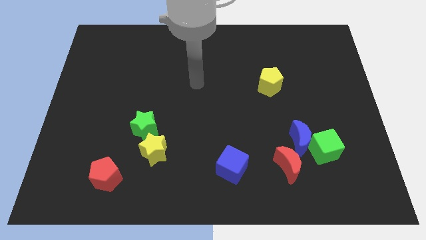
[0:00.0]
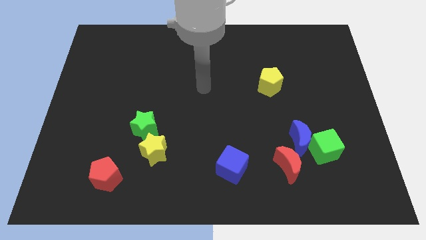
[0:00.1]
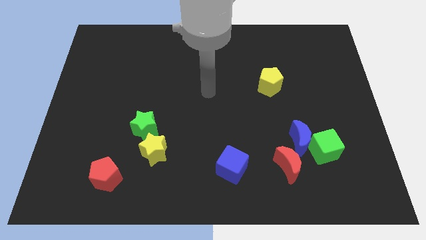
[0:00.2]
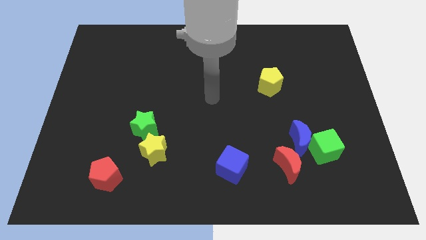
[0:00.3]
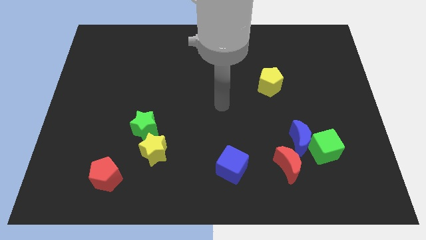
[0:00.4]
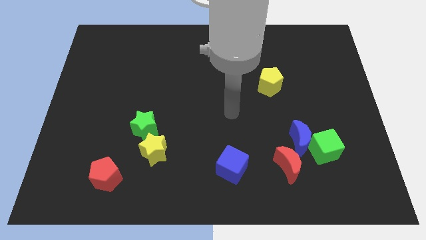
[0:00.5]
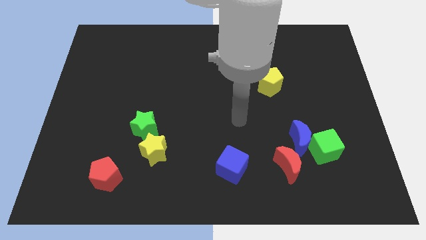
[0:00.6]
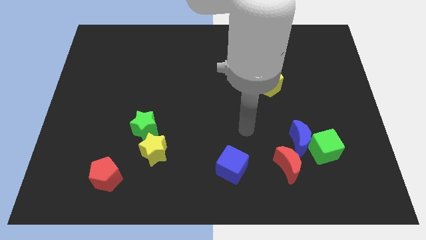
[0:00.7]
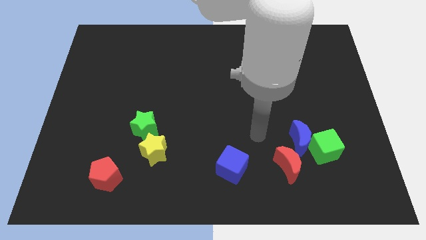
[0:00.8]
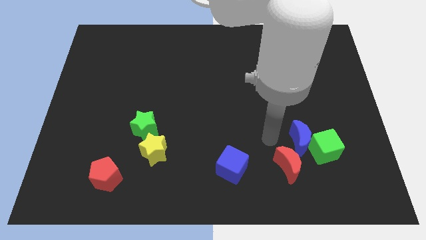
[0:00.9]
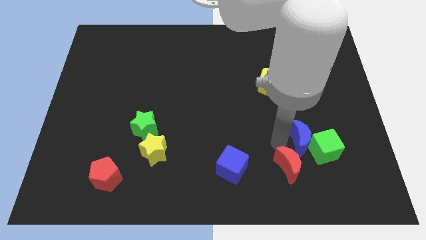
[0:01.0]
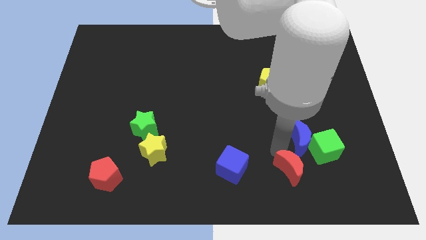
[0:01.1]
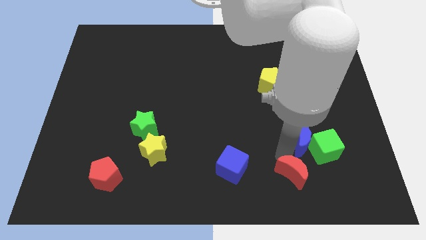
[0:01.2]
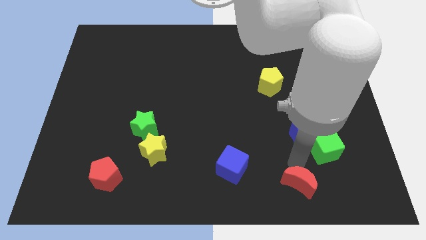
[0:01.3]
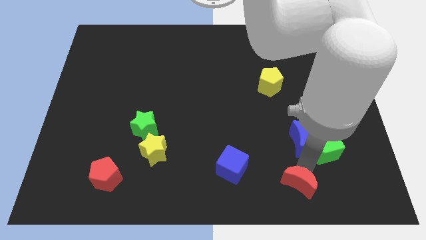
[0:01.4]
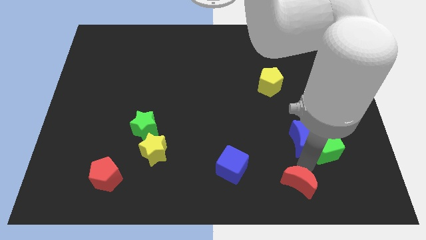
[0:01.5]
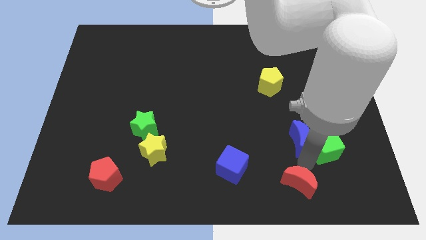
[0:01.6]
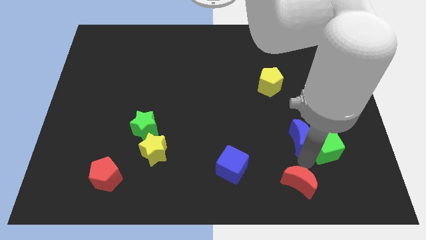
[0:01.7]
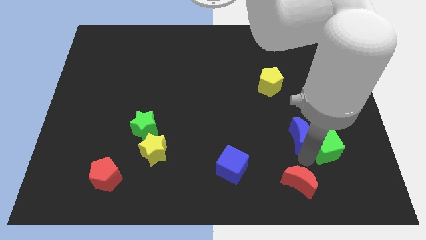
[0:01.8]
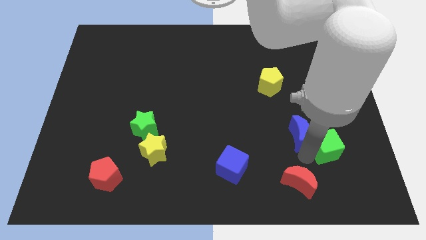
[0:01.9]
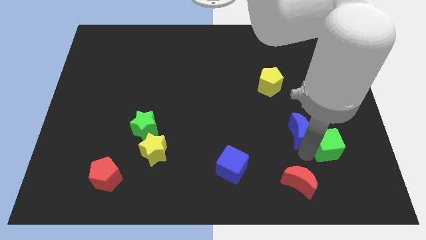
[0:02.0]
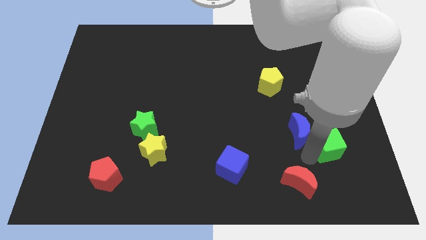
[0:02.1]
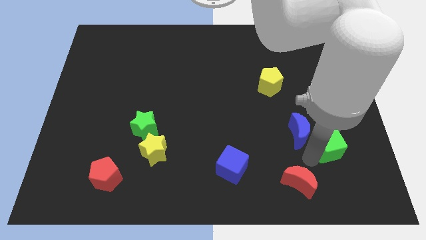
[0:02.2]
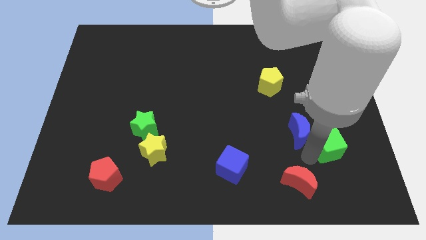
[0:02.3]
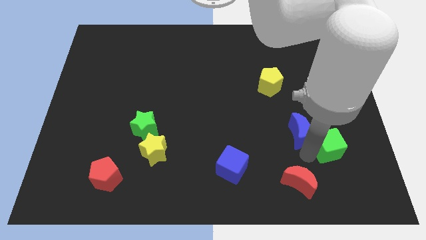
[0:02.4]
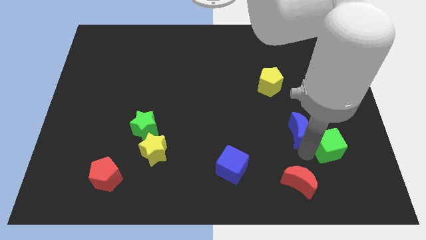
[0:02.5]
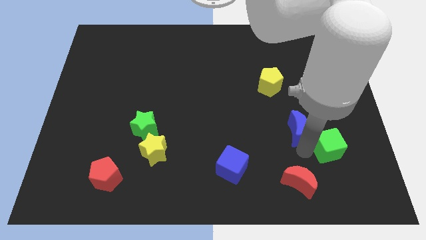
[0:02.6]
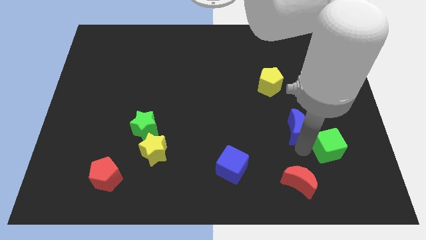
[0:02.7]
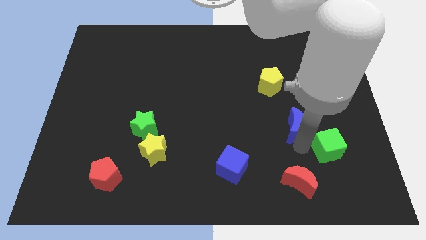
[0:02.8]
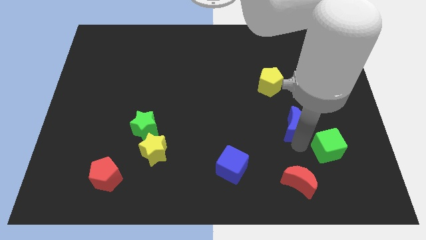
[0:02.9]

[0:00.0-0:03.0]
pull the blue moon apart from the green cube and red moon

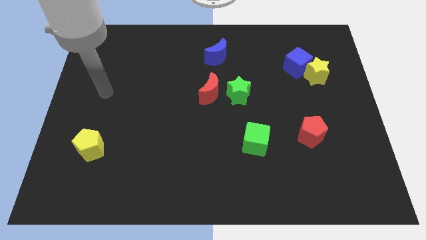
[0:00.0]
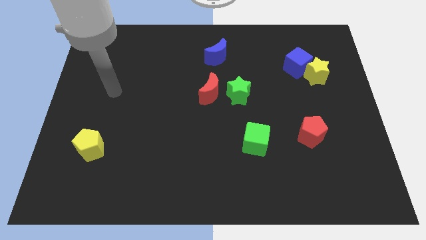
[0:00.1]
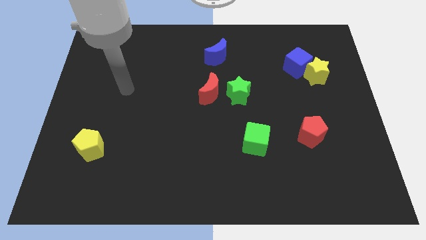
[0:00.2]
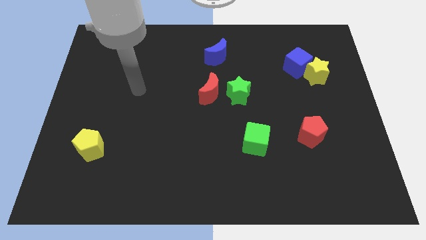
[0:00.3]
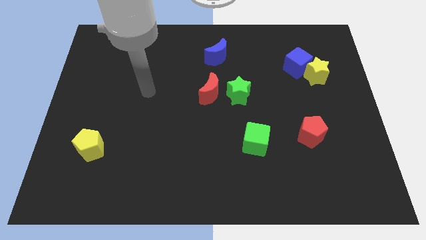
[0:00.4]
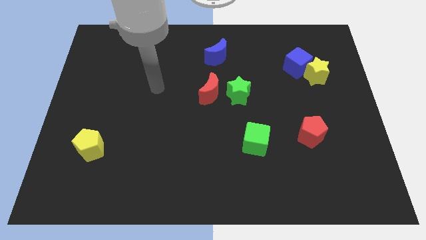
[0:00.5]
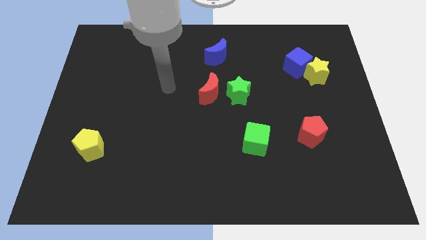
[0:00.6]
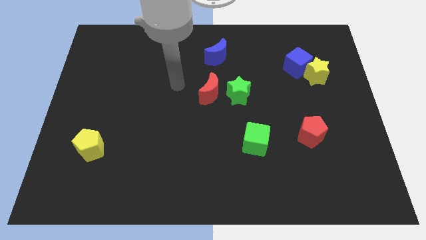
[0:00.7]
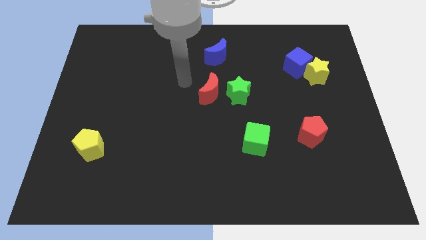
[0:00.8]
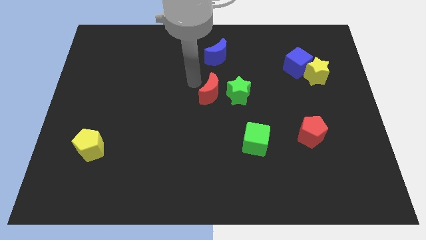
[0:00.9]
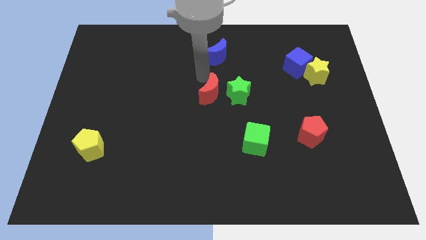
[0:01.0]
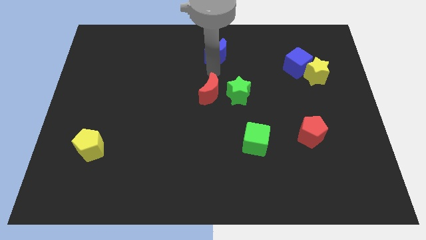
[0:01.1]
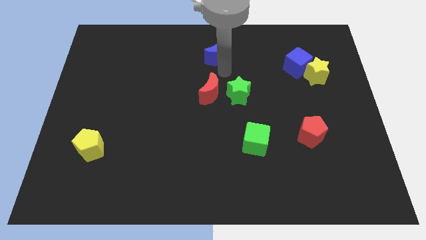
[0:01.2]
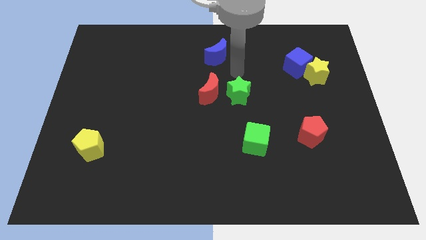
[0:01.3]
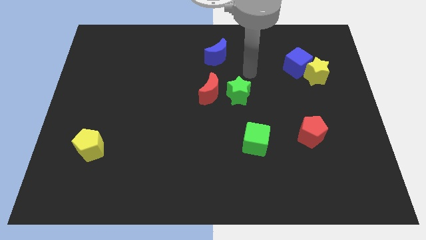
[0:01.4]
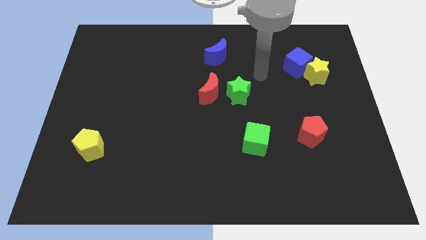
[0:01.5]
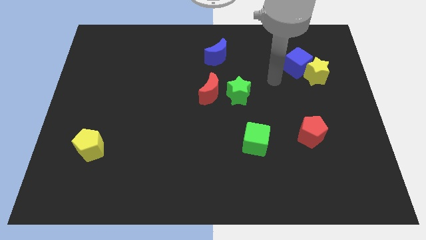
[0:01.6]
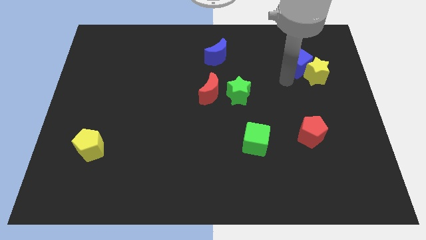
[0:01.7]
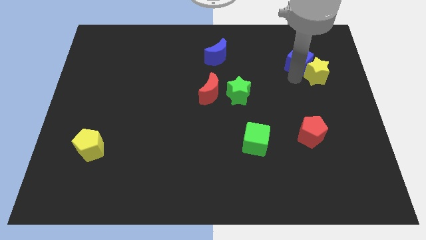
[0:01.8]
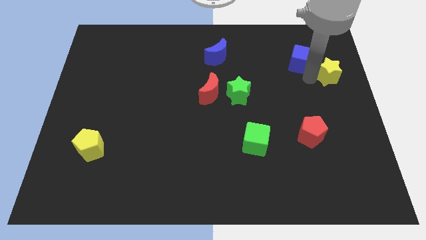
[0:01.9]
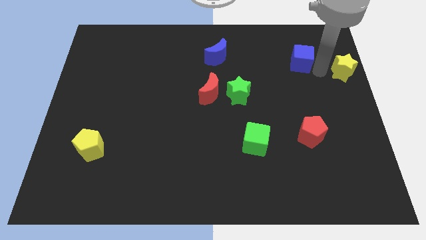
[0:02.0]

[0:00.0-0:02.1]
move the blue cube away from the yellow star

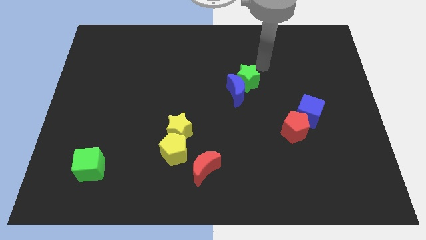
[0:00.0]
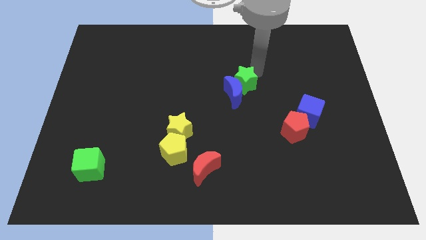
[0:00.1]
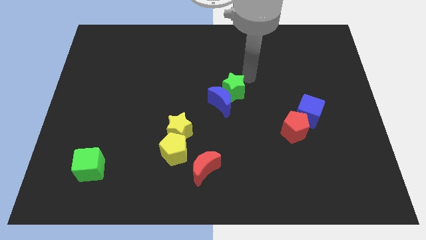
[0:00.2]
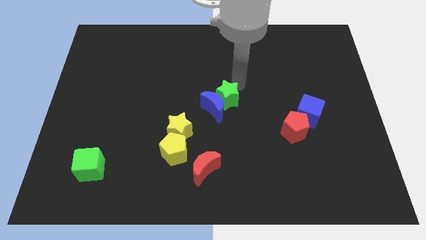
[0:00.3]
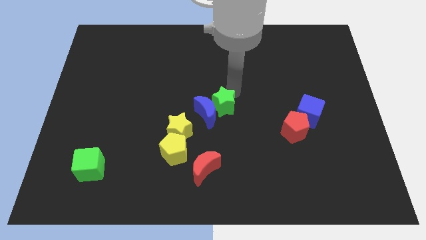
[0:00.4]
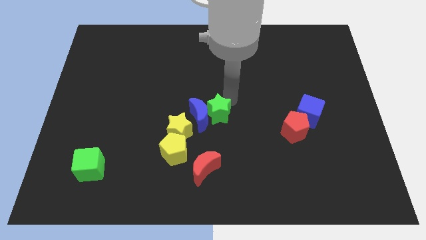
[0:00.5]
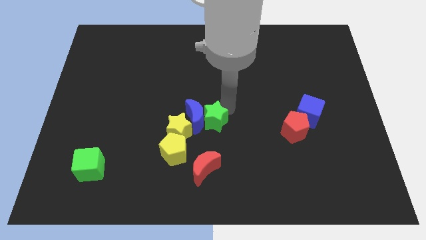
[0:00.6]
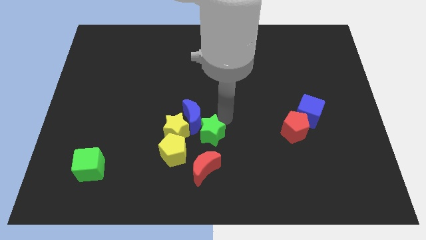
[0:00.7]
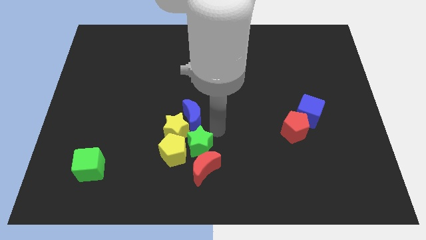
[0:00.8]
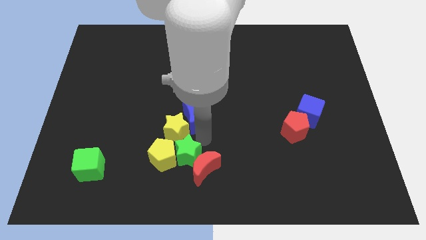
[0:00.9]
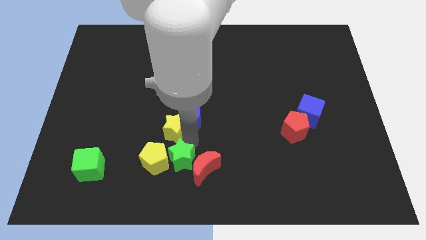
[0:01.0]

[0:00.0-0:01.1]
move the blue moon away from the green star

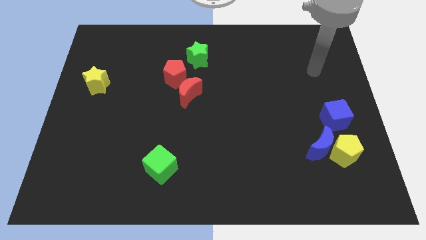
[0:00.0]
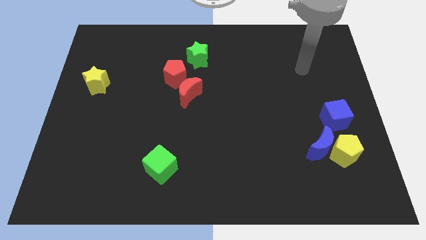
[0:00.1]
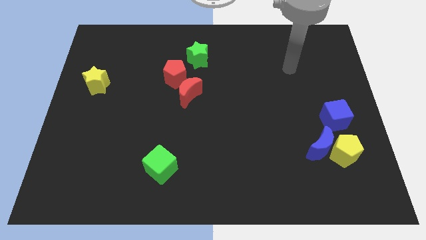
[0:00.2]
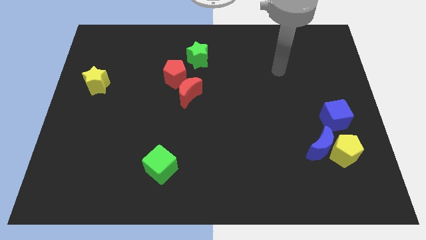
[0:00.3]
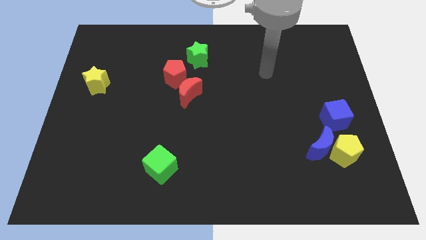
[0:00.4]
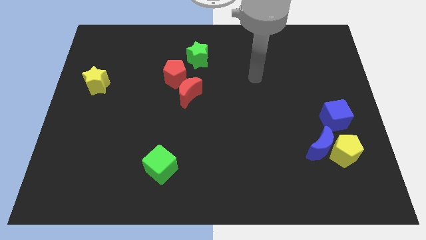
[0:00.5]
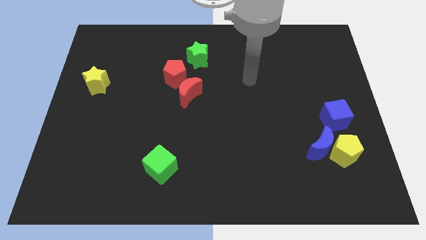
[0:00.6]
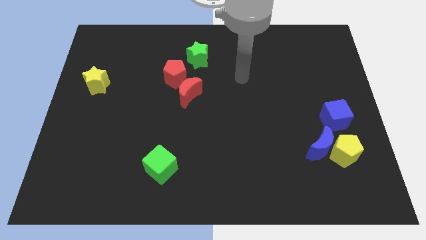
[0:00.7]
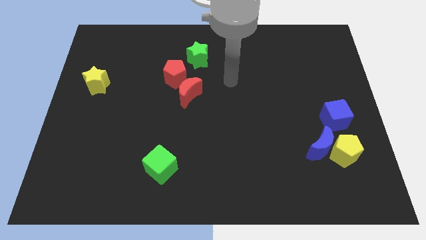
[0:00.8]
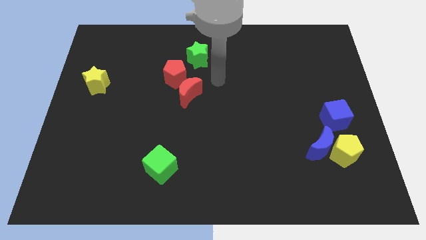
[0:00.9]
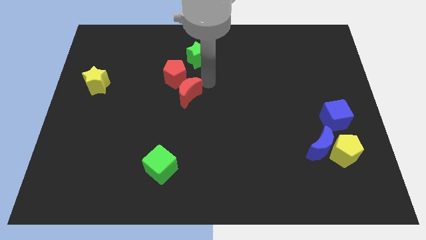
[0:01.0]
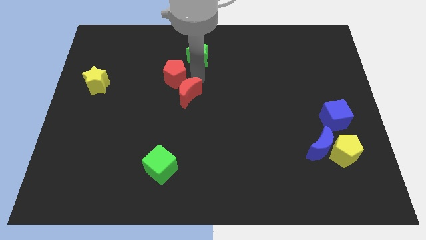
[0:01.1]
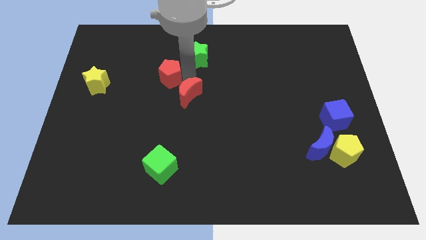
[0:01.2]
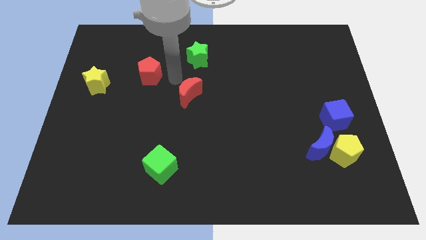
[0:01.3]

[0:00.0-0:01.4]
separate the red moon from the red pentagon

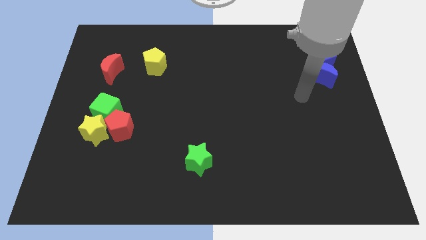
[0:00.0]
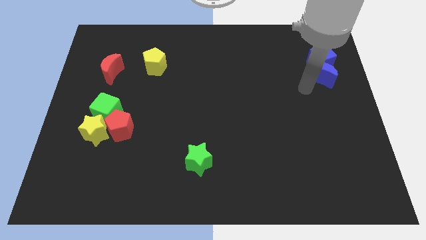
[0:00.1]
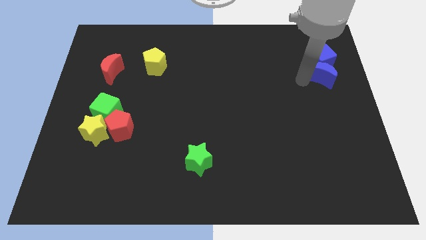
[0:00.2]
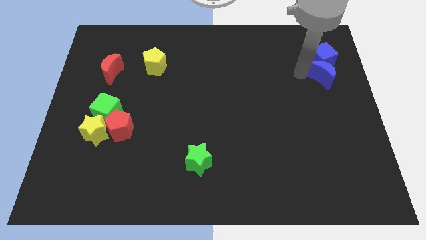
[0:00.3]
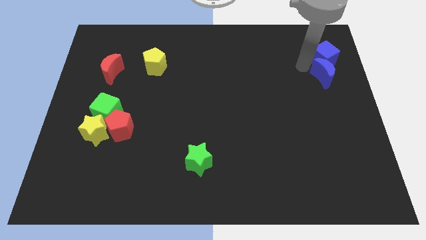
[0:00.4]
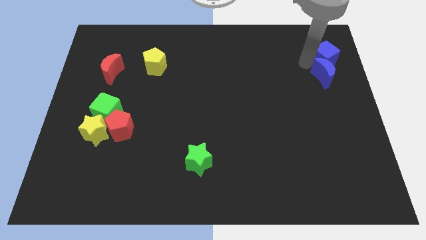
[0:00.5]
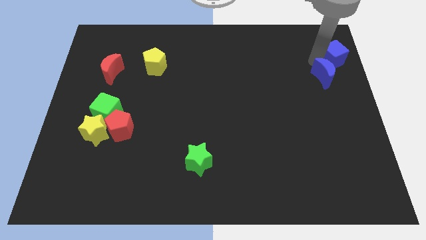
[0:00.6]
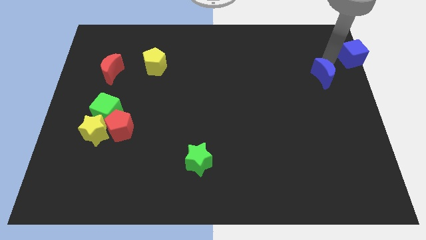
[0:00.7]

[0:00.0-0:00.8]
pull the blue moon apart from the blue cube

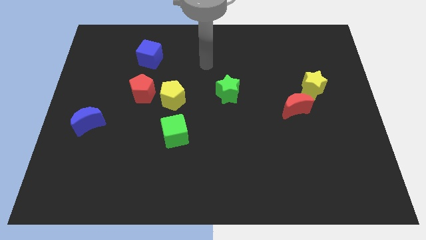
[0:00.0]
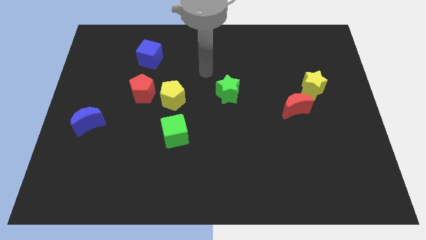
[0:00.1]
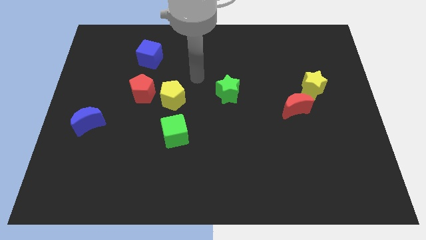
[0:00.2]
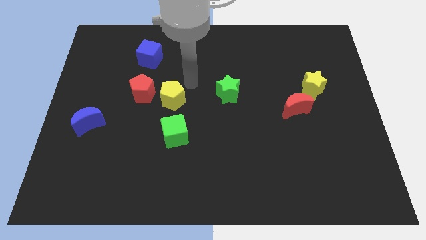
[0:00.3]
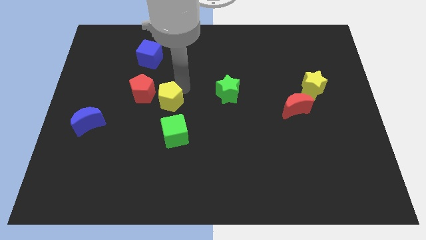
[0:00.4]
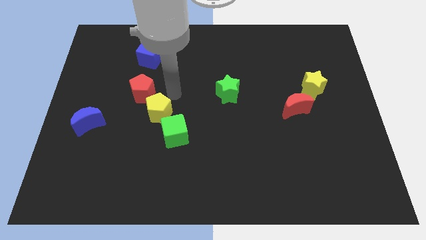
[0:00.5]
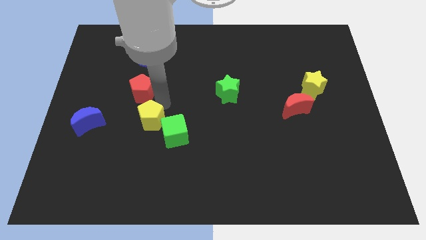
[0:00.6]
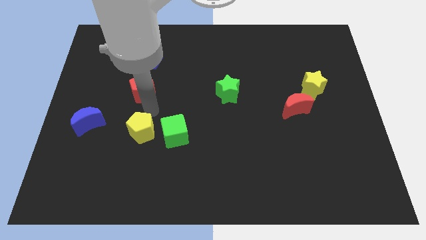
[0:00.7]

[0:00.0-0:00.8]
move the red pentagon away from the yellow pentagon
